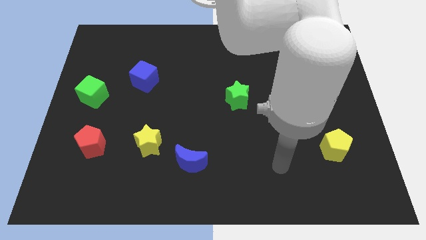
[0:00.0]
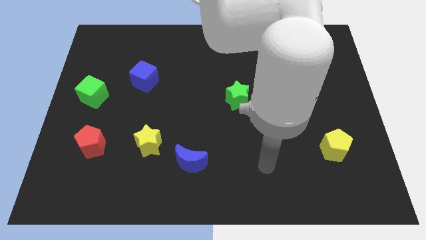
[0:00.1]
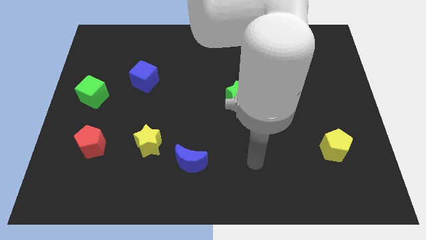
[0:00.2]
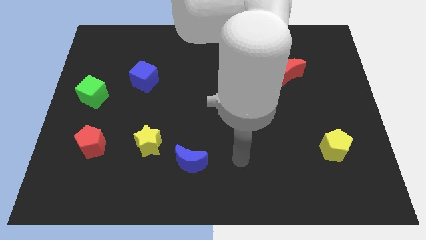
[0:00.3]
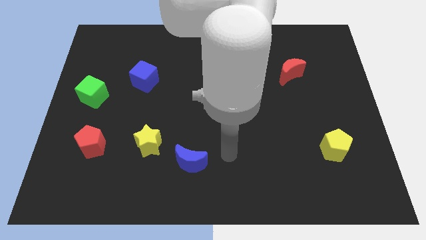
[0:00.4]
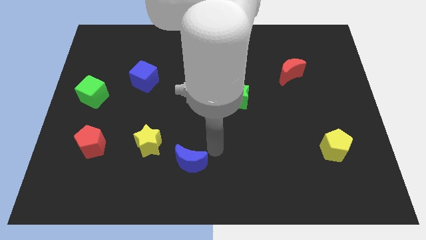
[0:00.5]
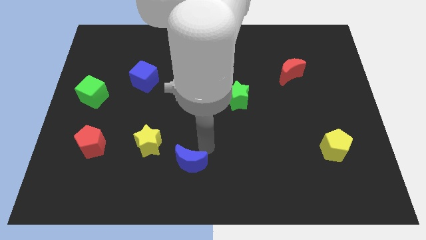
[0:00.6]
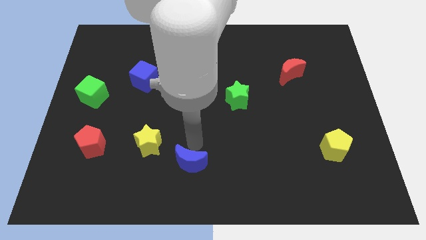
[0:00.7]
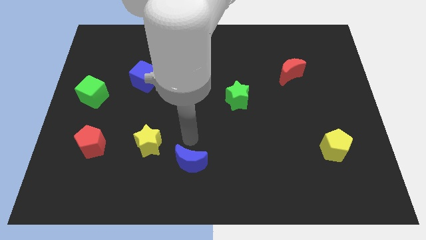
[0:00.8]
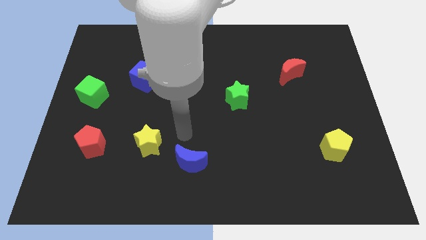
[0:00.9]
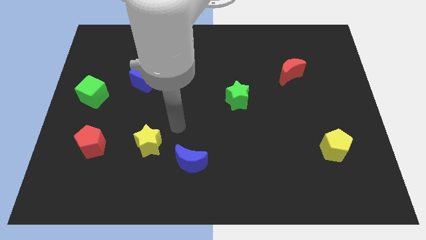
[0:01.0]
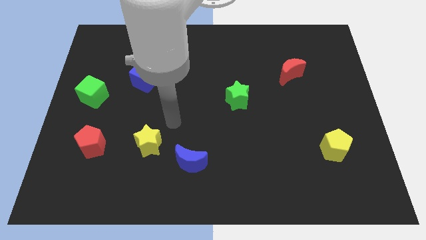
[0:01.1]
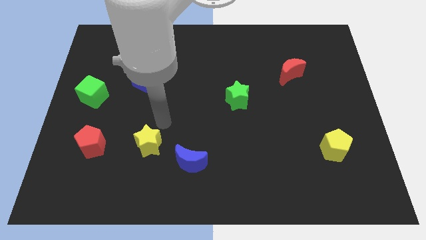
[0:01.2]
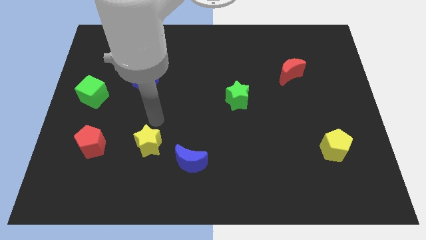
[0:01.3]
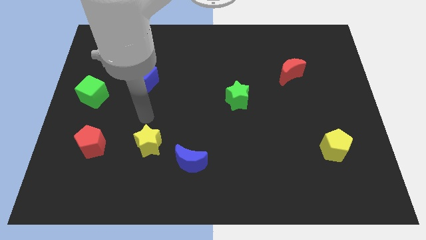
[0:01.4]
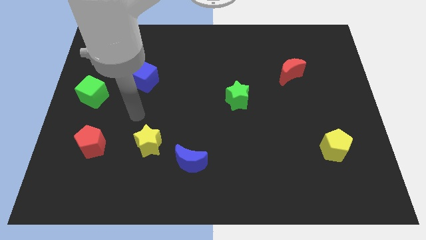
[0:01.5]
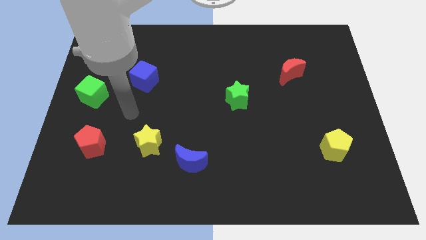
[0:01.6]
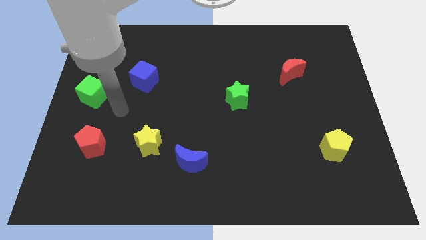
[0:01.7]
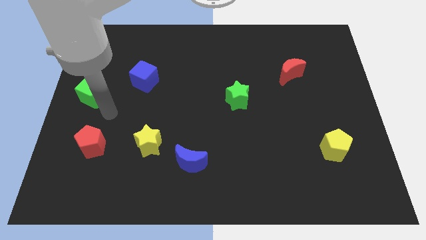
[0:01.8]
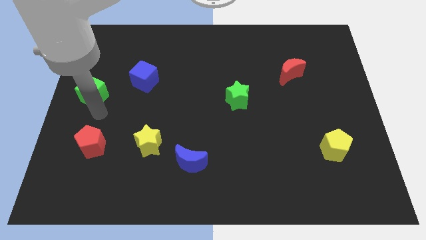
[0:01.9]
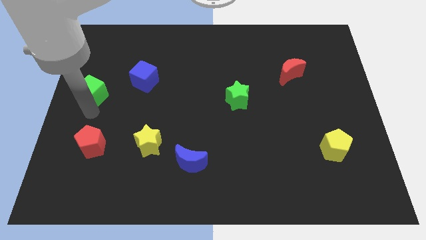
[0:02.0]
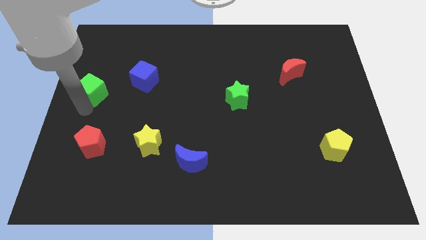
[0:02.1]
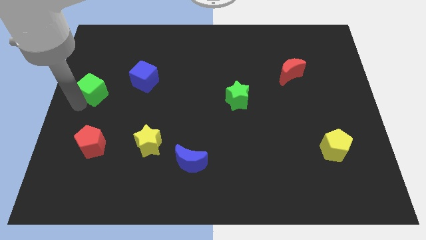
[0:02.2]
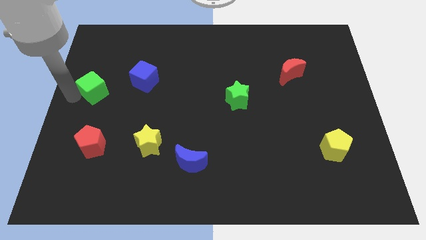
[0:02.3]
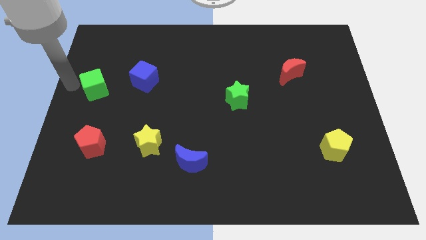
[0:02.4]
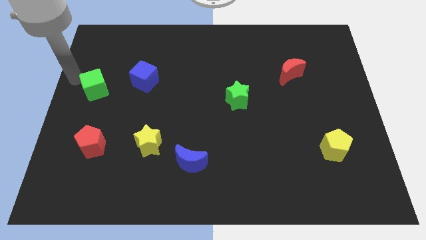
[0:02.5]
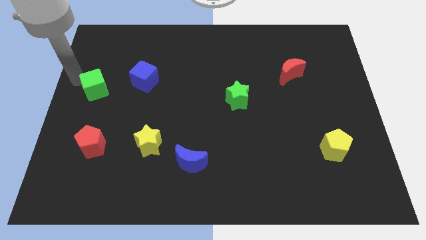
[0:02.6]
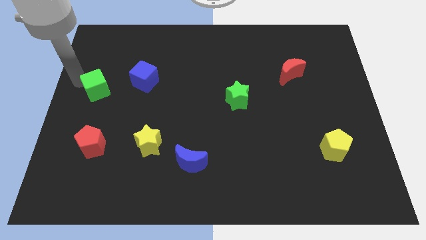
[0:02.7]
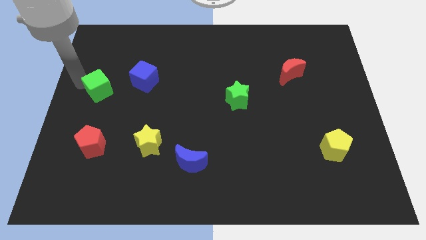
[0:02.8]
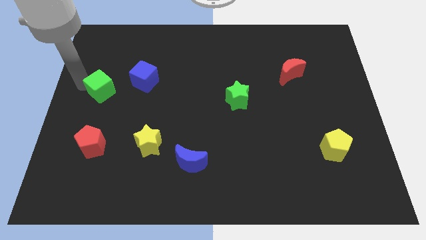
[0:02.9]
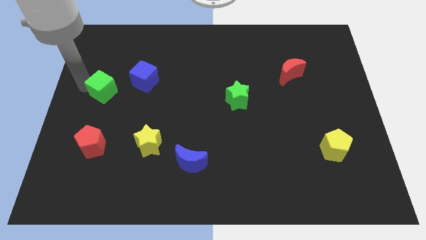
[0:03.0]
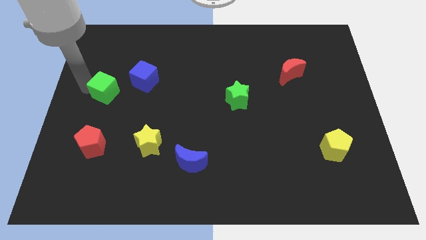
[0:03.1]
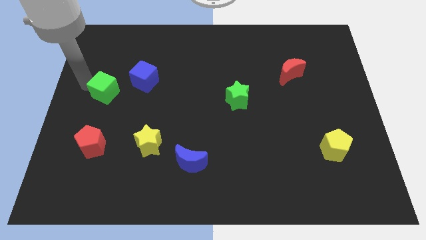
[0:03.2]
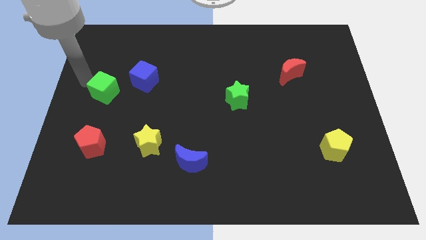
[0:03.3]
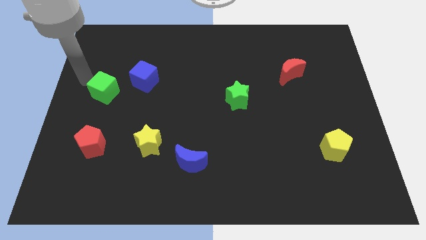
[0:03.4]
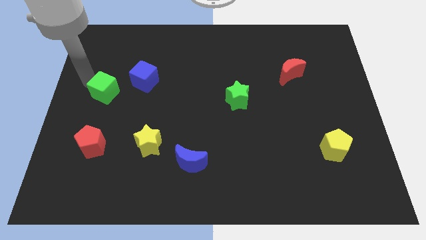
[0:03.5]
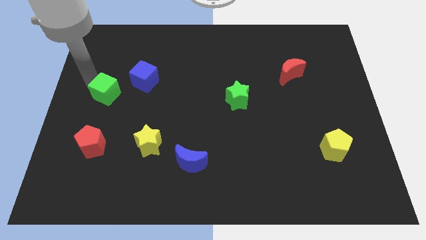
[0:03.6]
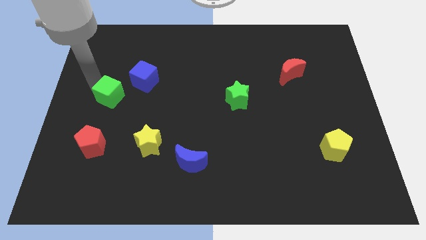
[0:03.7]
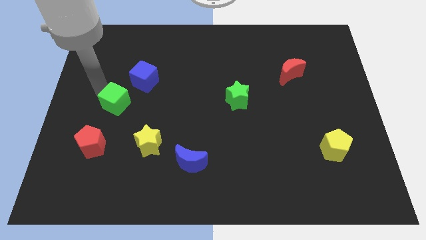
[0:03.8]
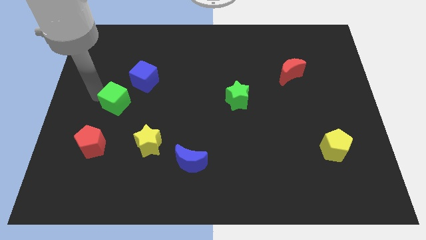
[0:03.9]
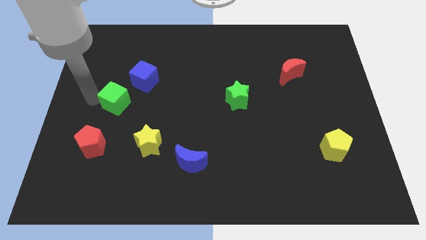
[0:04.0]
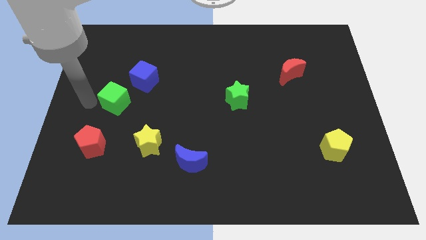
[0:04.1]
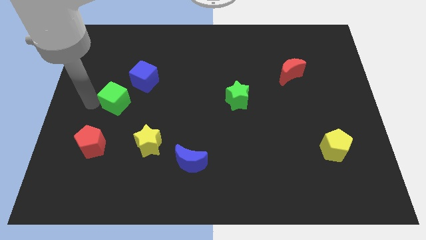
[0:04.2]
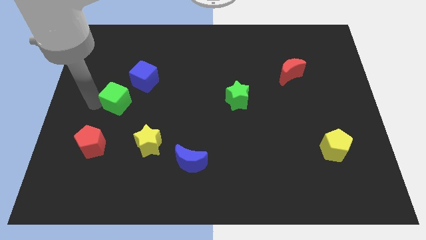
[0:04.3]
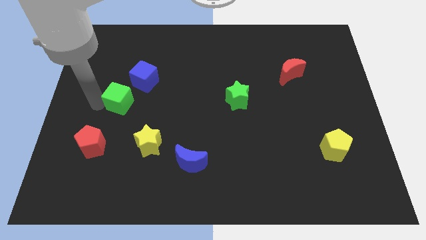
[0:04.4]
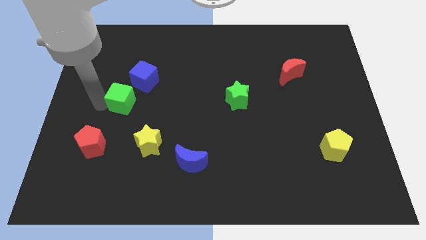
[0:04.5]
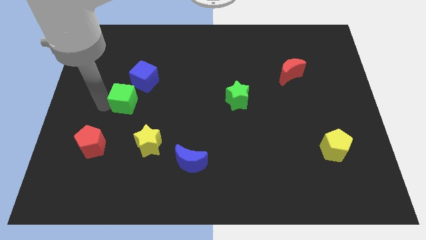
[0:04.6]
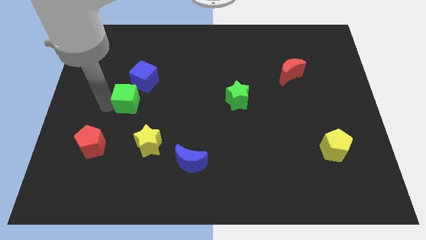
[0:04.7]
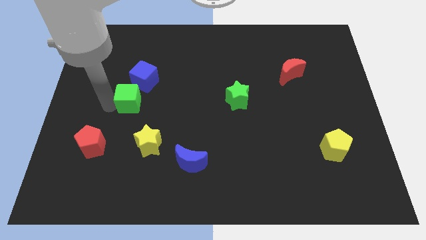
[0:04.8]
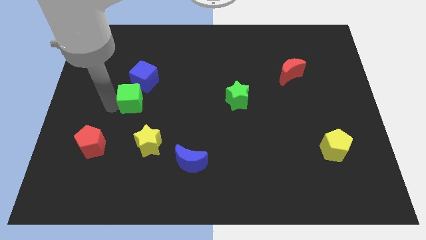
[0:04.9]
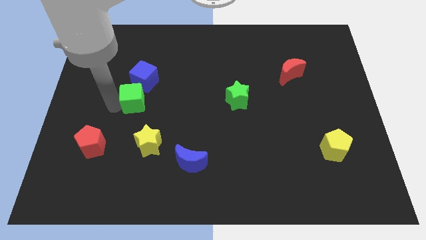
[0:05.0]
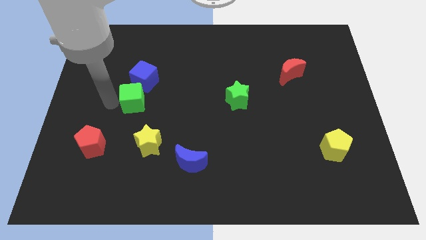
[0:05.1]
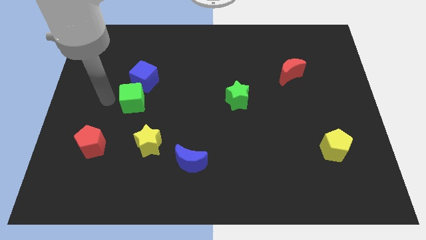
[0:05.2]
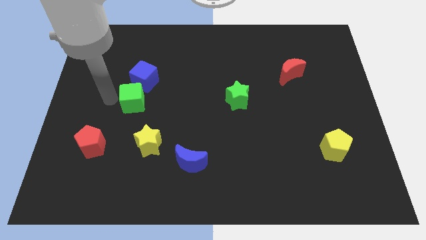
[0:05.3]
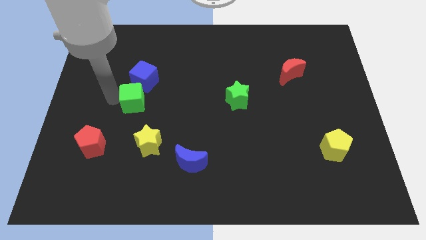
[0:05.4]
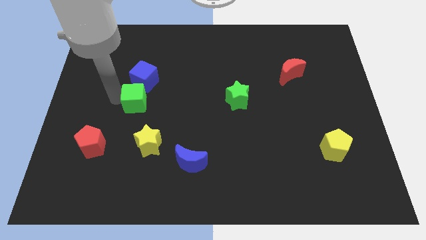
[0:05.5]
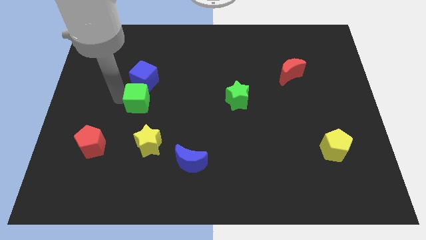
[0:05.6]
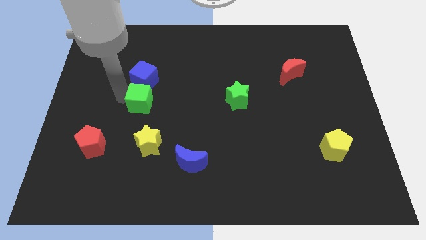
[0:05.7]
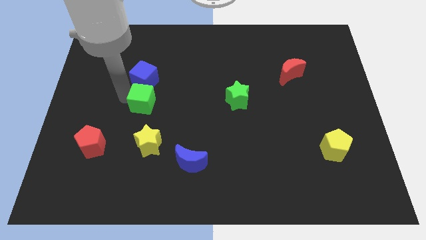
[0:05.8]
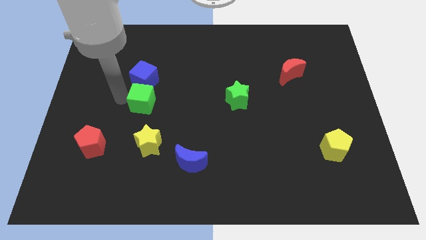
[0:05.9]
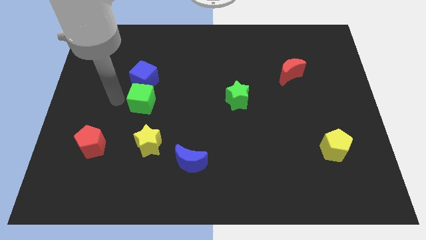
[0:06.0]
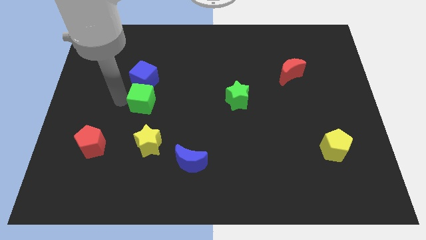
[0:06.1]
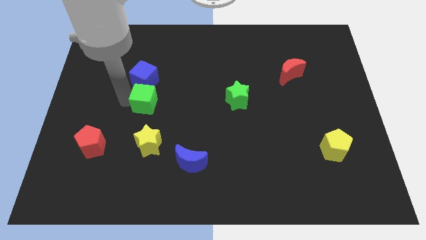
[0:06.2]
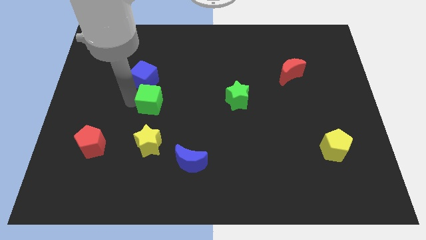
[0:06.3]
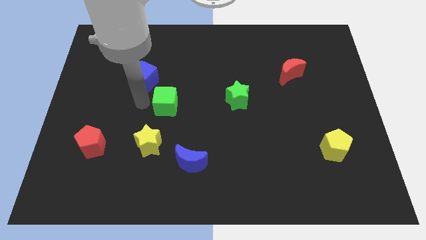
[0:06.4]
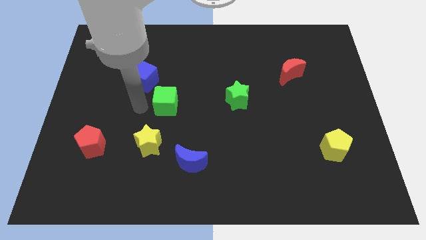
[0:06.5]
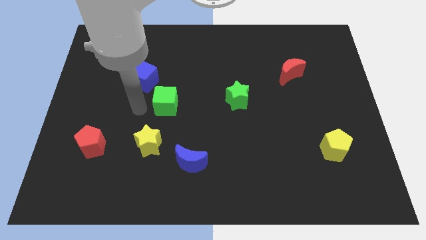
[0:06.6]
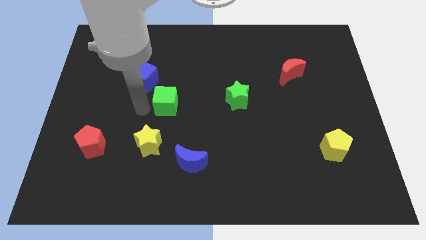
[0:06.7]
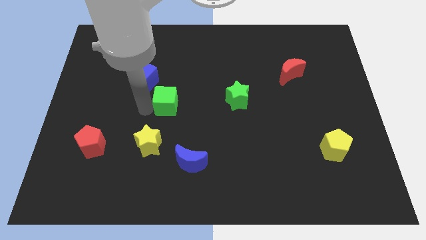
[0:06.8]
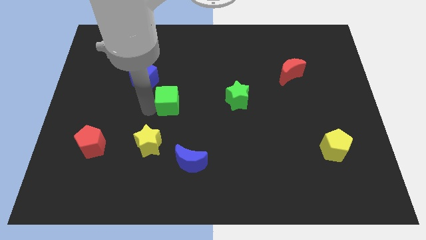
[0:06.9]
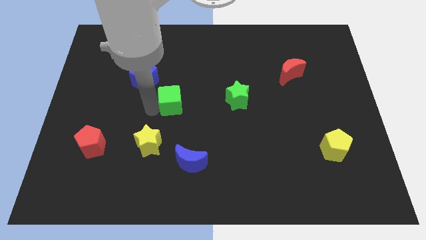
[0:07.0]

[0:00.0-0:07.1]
push the green cube just left of the green star

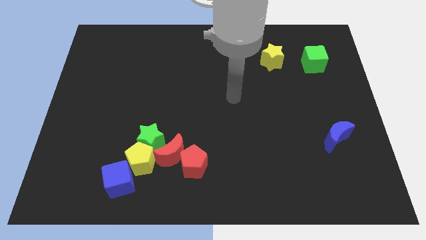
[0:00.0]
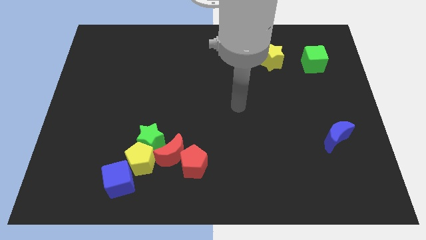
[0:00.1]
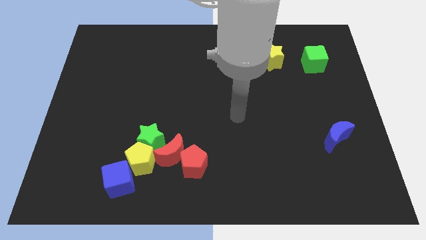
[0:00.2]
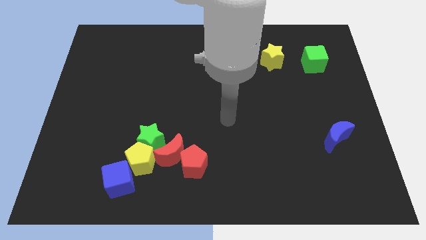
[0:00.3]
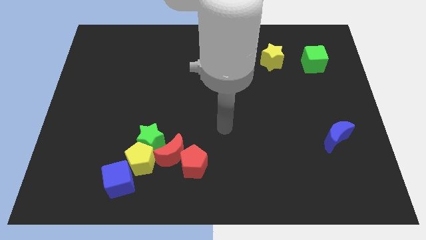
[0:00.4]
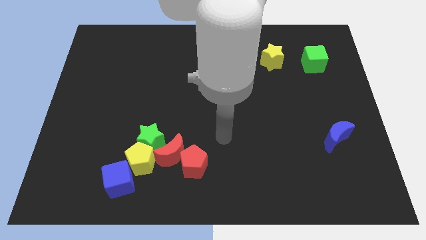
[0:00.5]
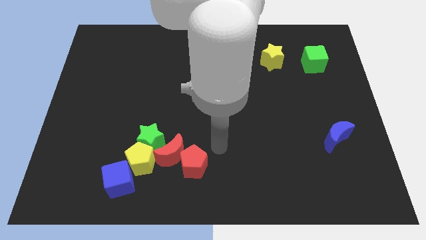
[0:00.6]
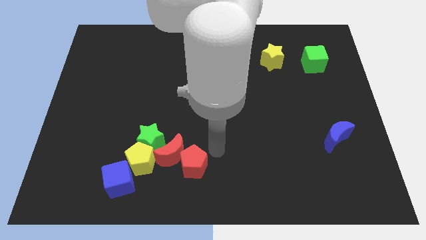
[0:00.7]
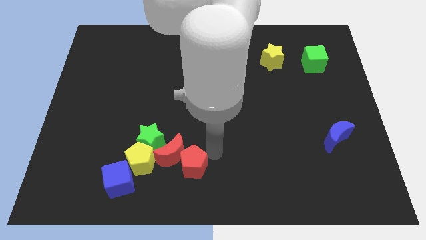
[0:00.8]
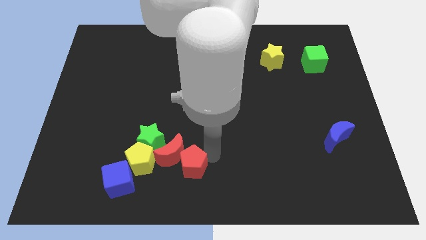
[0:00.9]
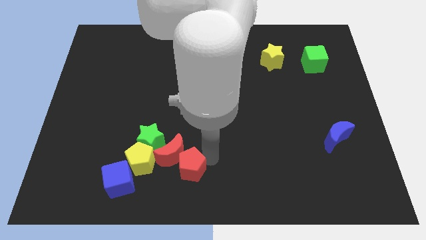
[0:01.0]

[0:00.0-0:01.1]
move the red pentagon to the right side of the blue cube
